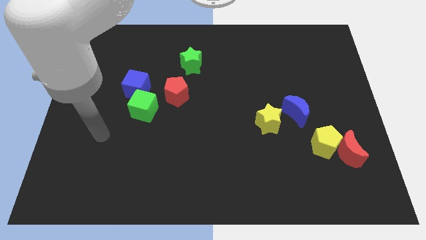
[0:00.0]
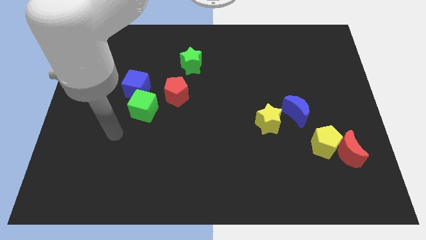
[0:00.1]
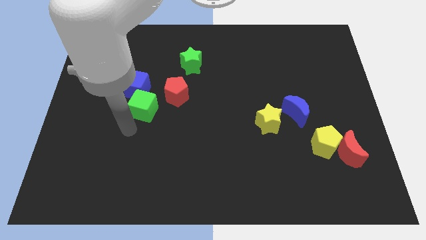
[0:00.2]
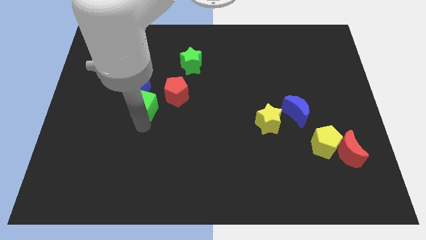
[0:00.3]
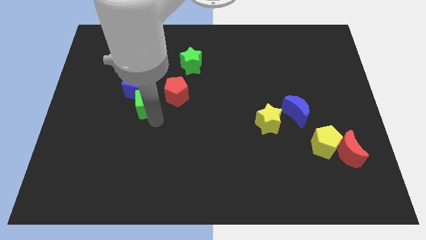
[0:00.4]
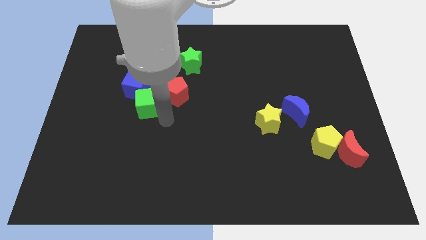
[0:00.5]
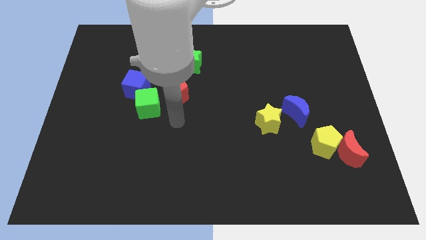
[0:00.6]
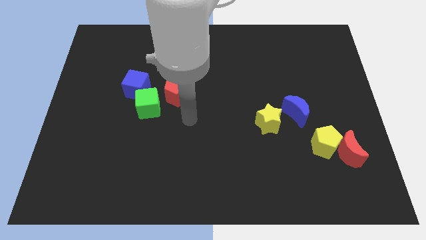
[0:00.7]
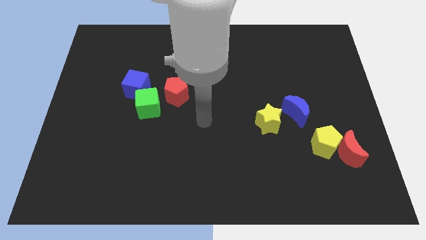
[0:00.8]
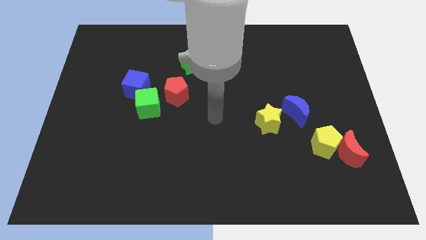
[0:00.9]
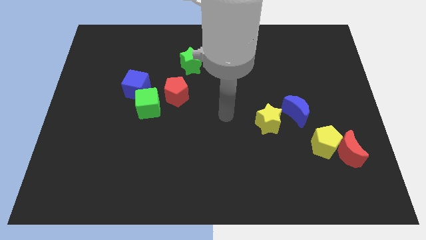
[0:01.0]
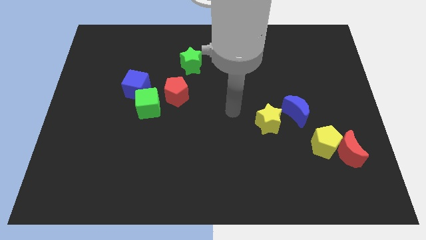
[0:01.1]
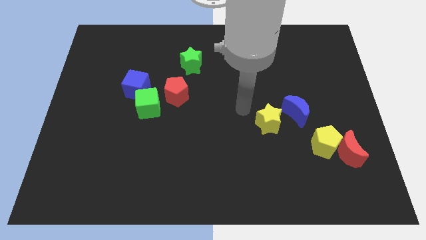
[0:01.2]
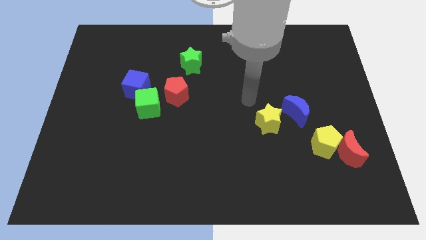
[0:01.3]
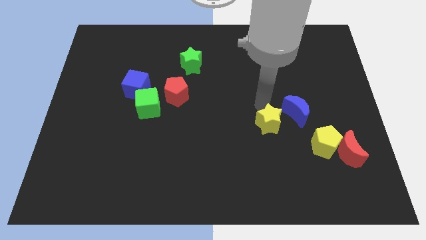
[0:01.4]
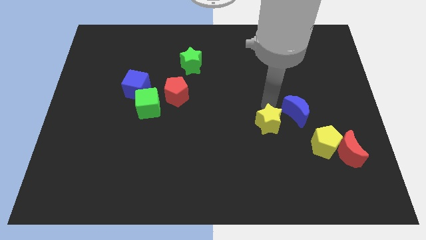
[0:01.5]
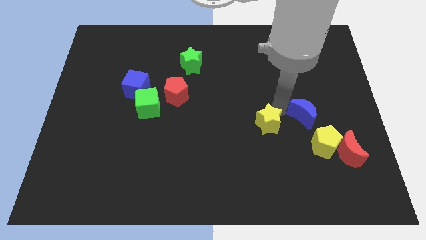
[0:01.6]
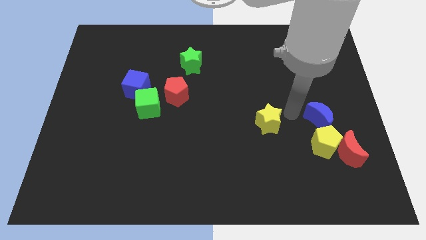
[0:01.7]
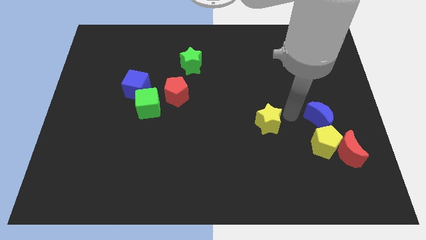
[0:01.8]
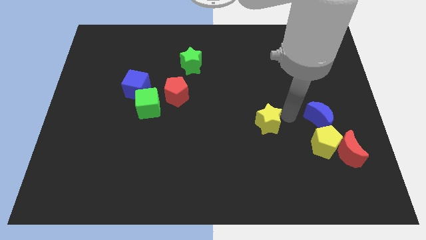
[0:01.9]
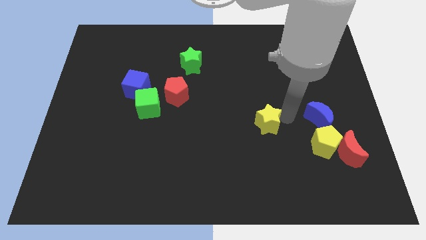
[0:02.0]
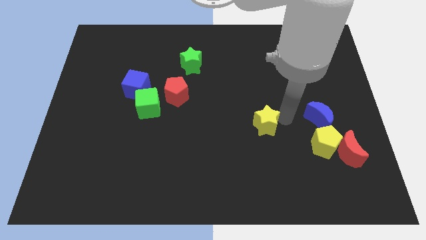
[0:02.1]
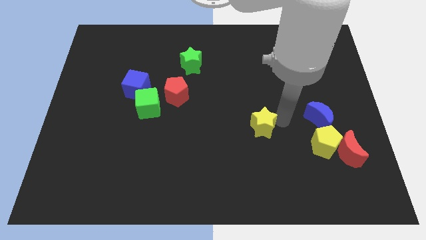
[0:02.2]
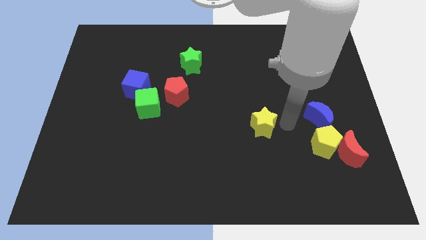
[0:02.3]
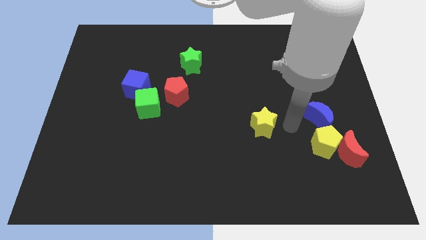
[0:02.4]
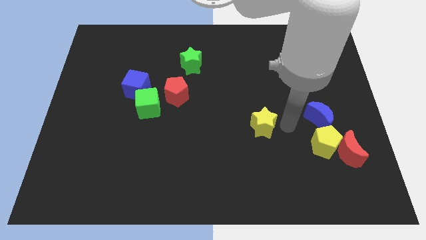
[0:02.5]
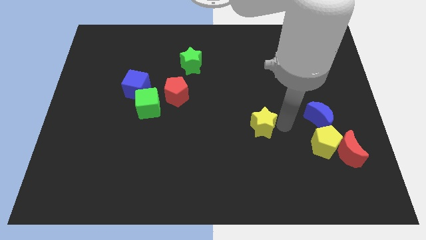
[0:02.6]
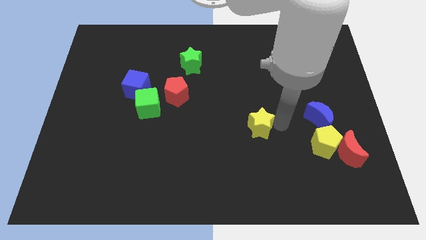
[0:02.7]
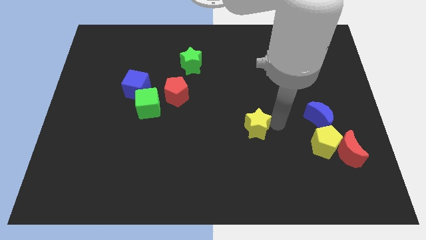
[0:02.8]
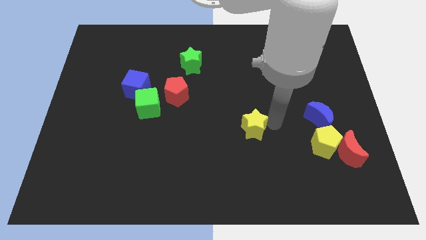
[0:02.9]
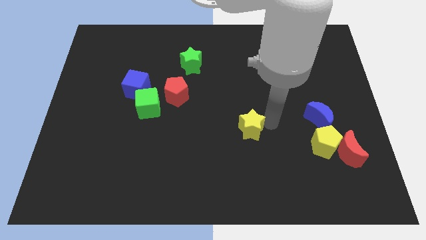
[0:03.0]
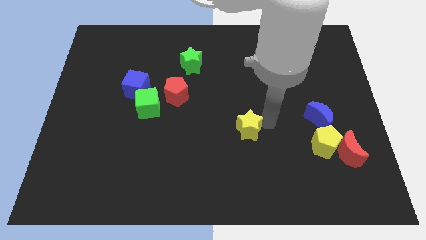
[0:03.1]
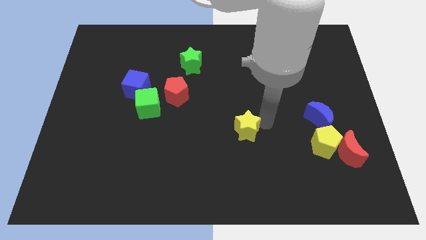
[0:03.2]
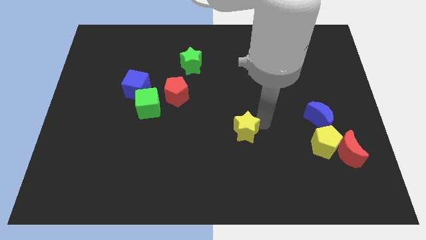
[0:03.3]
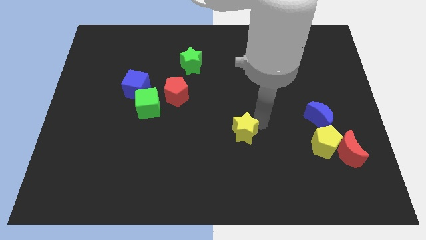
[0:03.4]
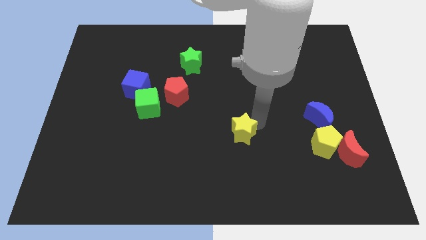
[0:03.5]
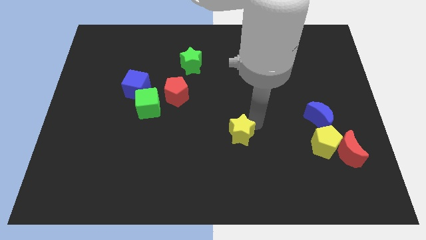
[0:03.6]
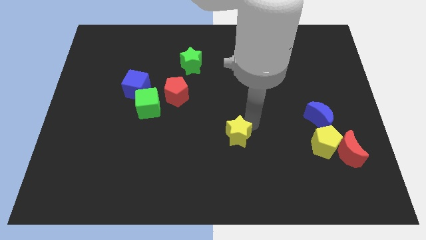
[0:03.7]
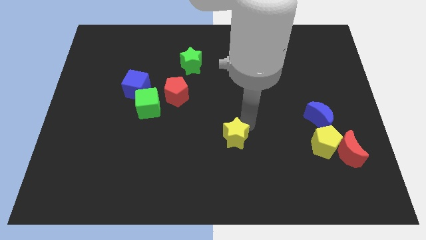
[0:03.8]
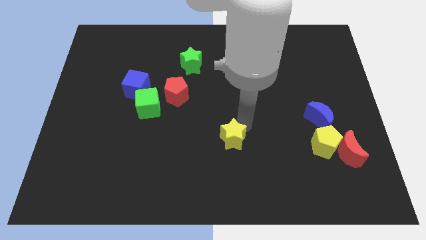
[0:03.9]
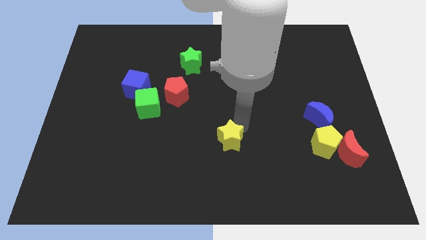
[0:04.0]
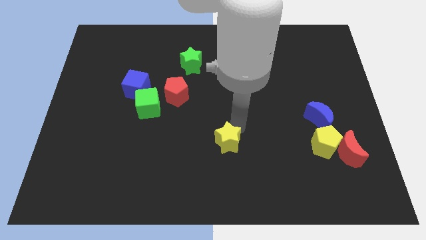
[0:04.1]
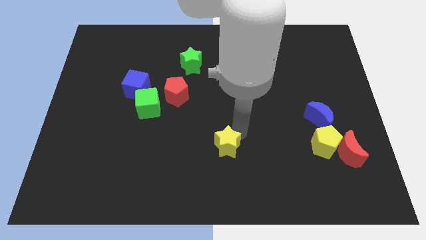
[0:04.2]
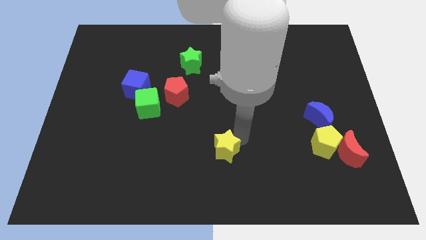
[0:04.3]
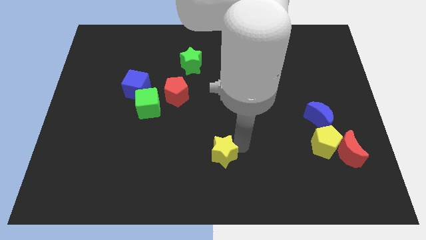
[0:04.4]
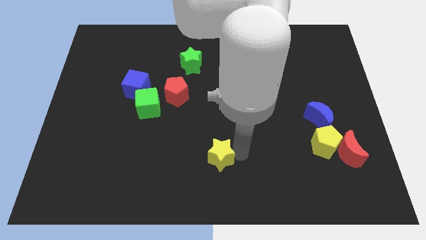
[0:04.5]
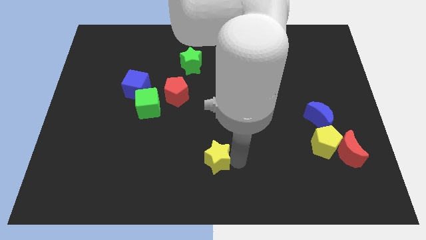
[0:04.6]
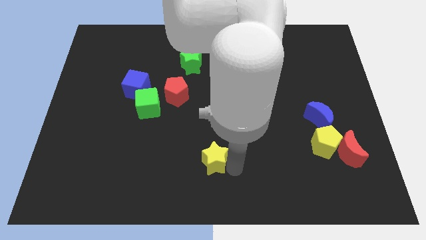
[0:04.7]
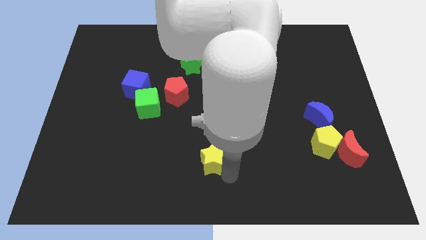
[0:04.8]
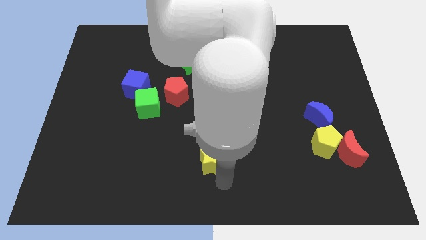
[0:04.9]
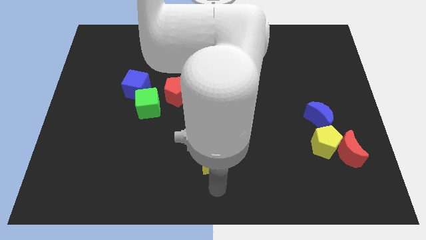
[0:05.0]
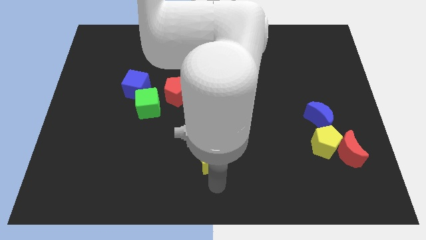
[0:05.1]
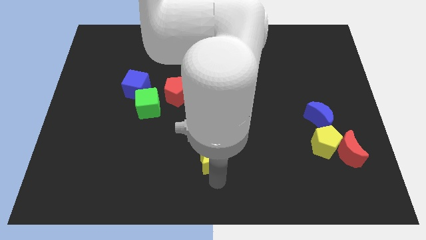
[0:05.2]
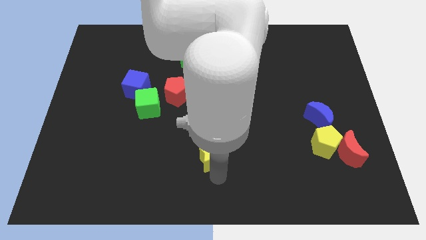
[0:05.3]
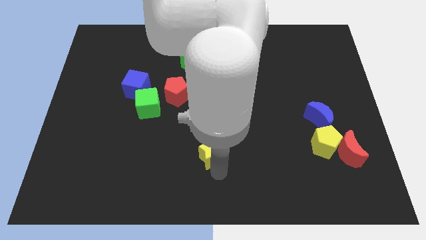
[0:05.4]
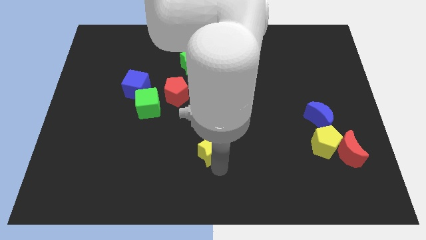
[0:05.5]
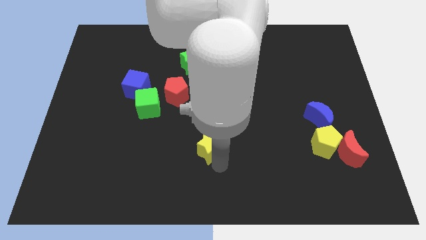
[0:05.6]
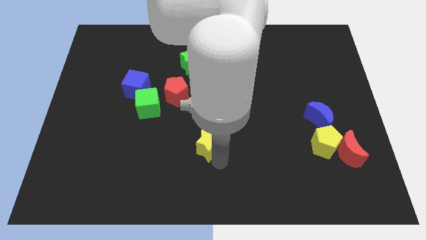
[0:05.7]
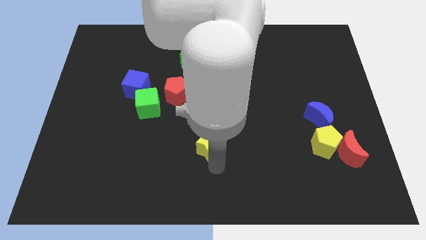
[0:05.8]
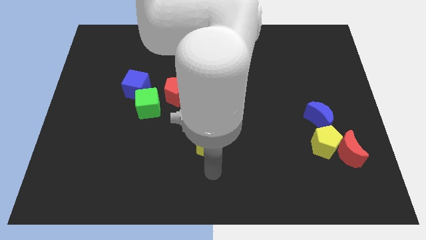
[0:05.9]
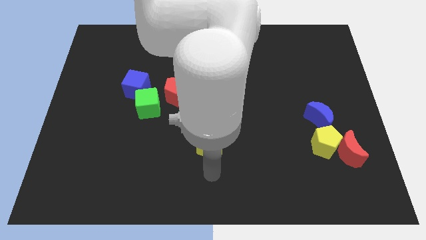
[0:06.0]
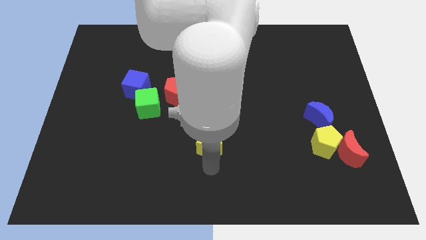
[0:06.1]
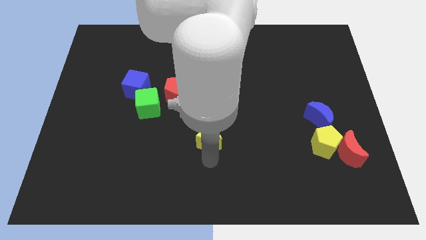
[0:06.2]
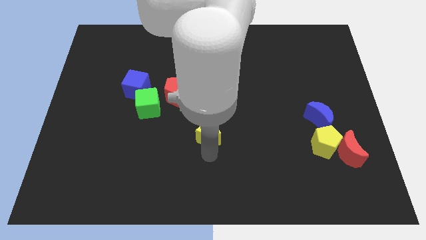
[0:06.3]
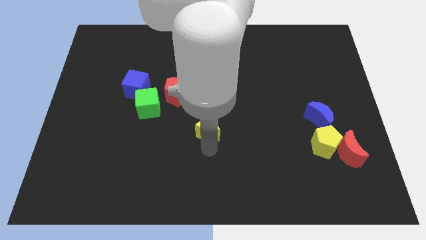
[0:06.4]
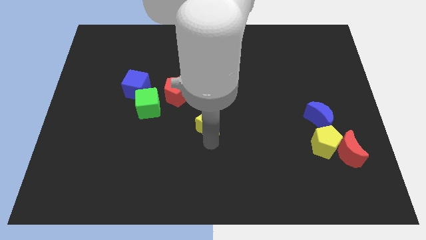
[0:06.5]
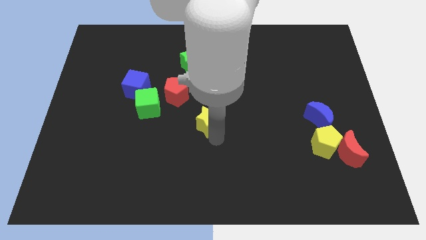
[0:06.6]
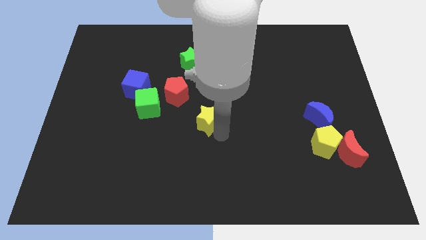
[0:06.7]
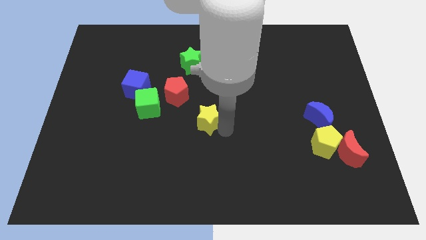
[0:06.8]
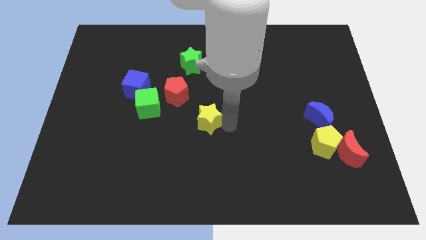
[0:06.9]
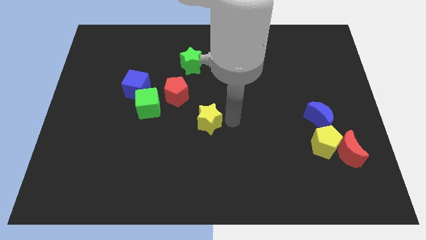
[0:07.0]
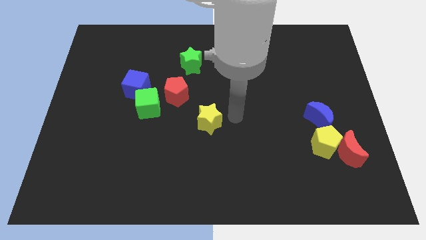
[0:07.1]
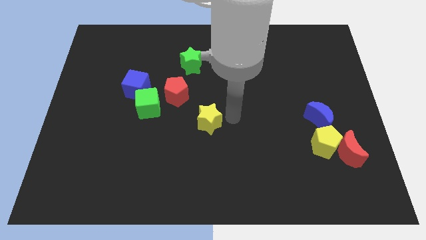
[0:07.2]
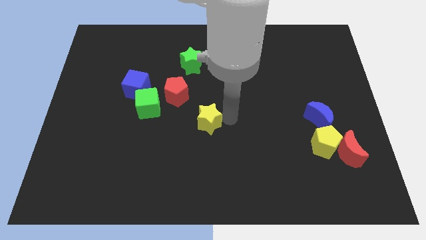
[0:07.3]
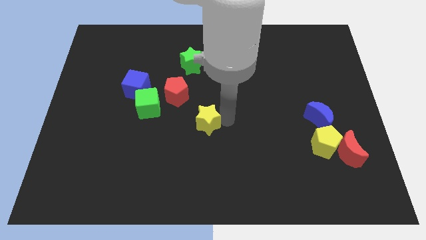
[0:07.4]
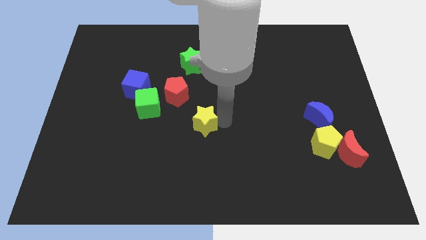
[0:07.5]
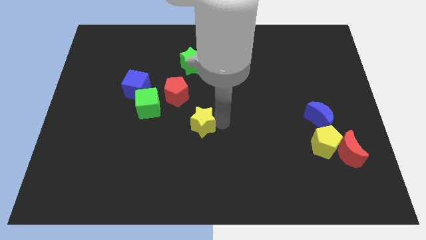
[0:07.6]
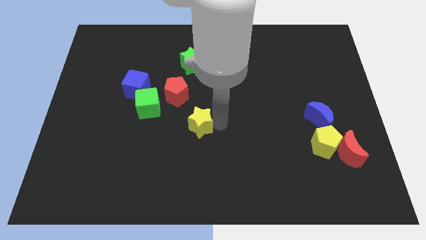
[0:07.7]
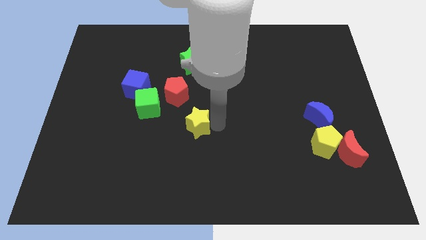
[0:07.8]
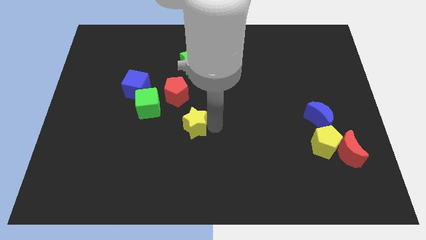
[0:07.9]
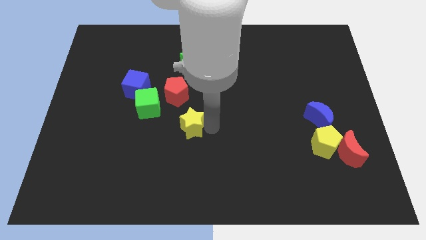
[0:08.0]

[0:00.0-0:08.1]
push the yellow star diagonally down and to the right of the green cube
